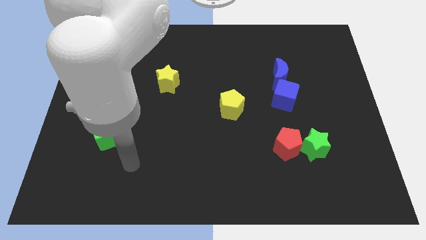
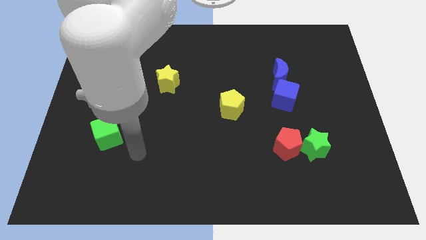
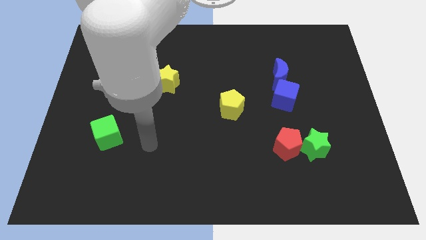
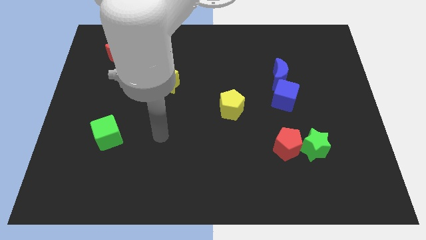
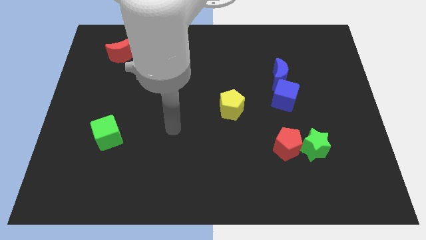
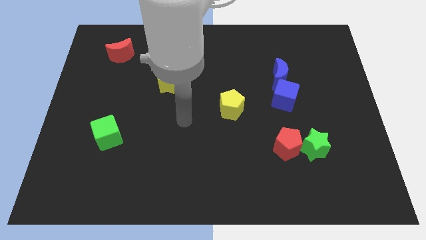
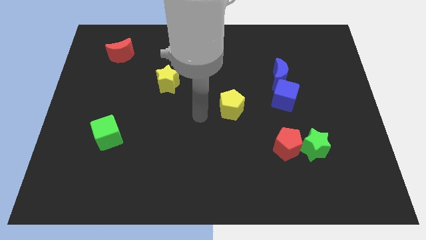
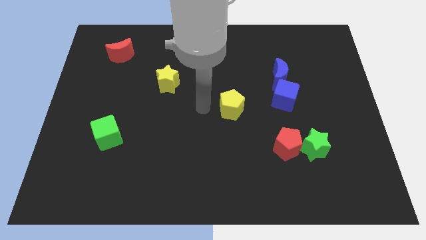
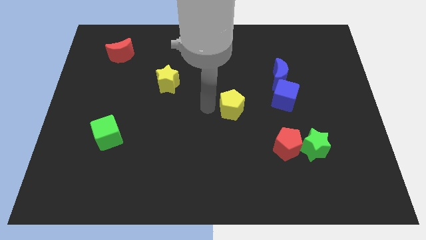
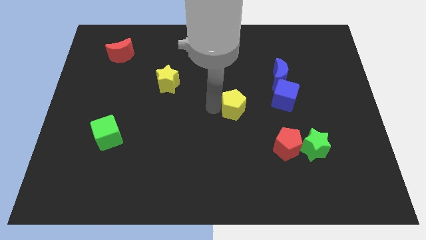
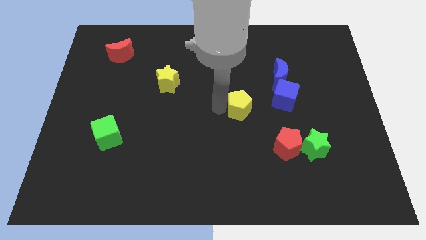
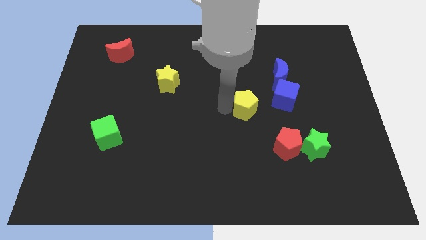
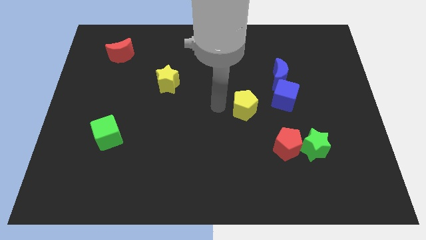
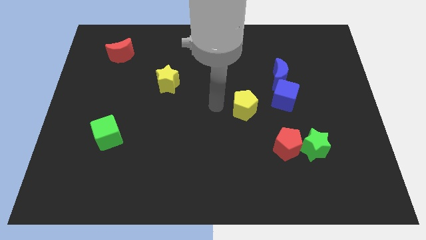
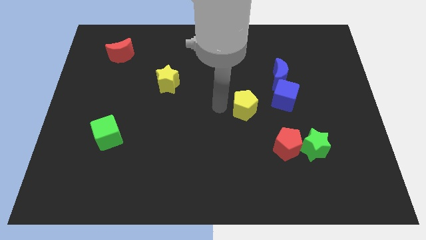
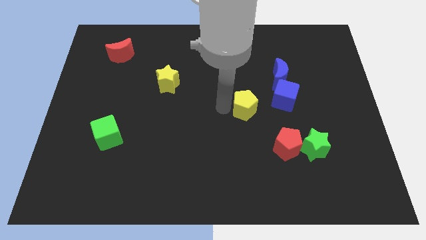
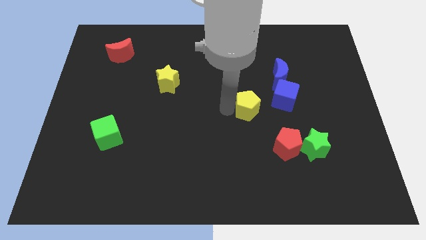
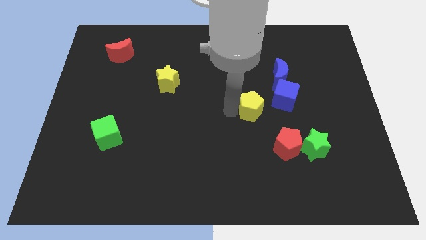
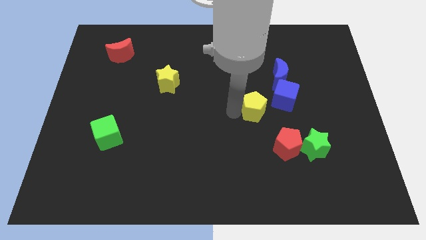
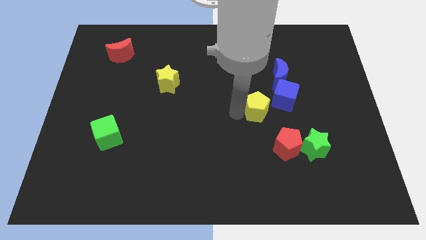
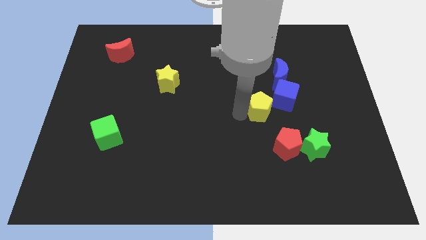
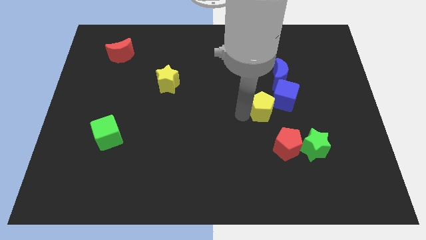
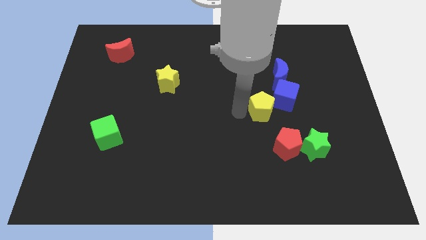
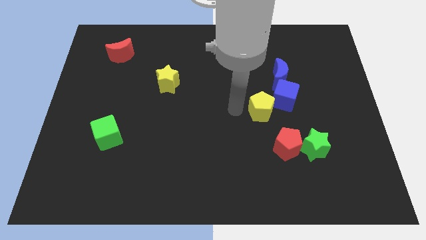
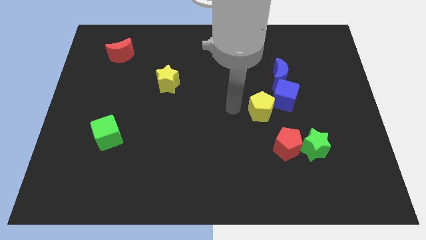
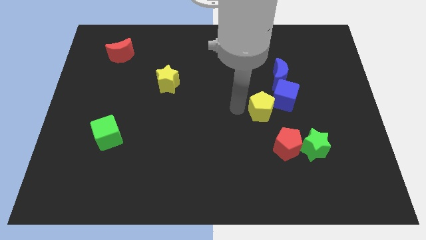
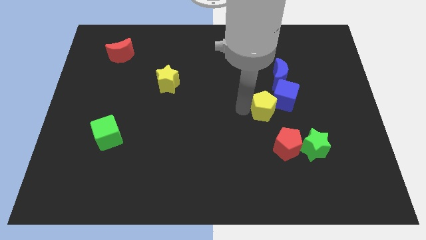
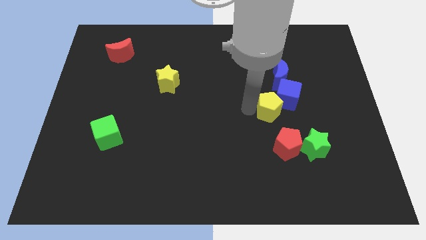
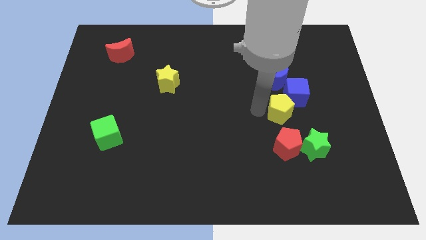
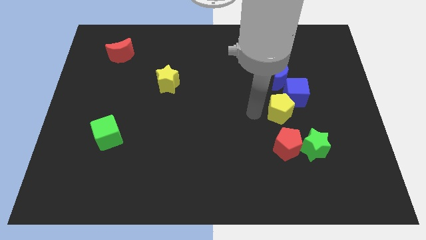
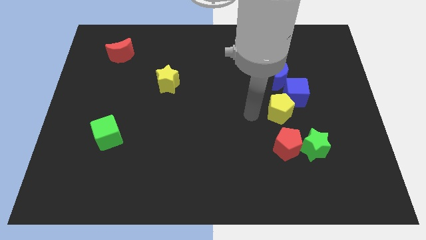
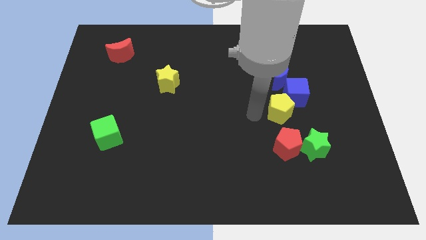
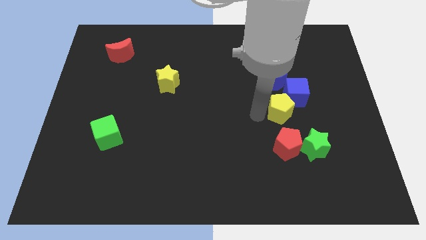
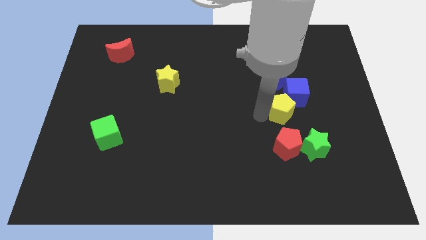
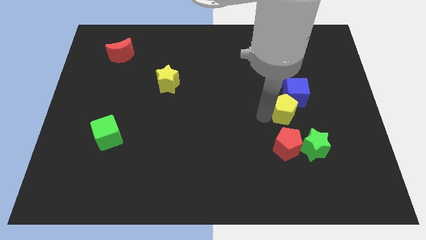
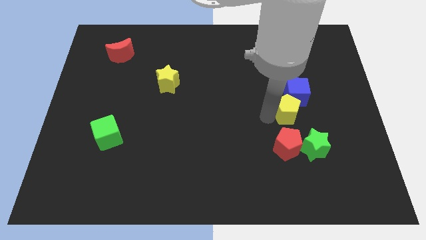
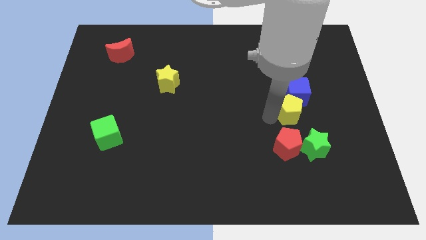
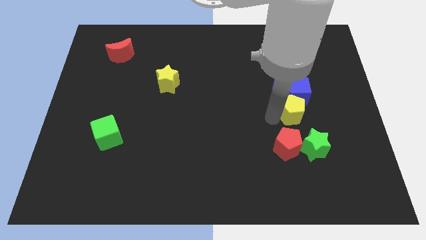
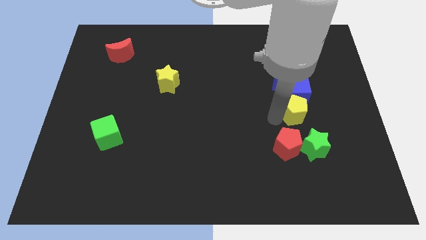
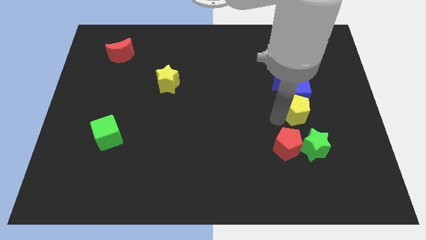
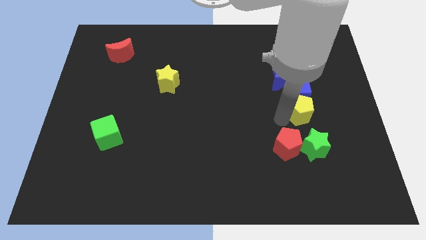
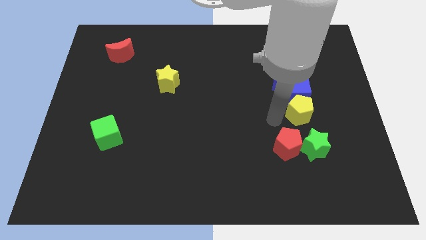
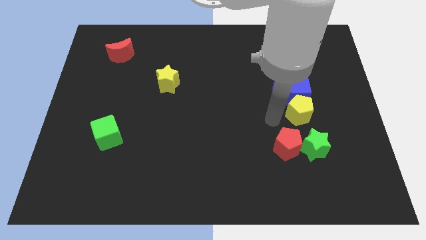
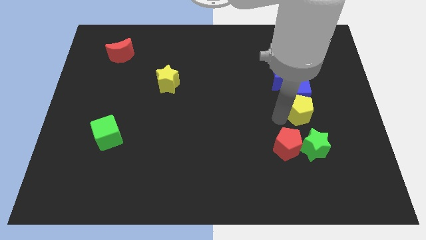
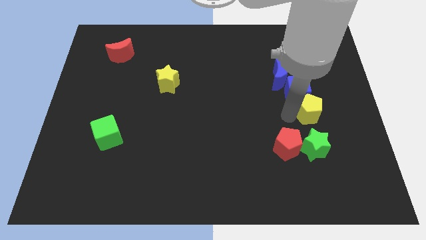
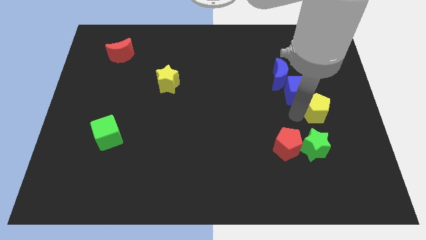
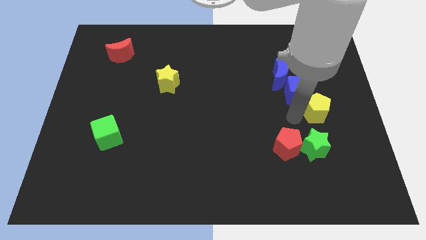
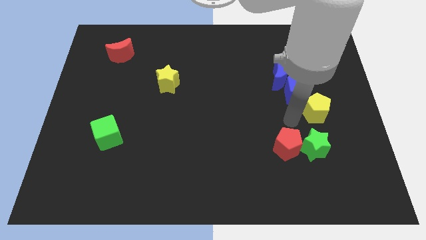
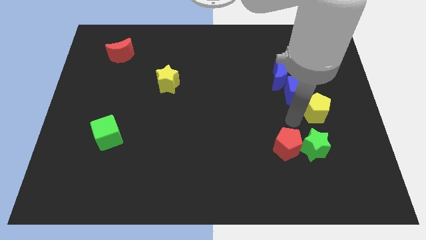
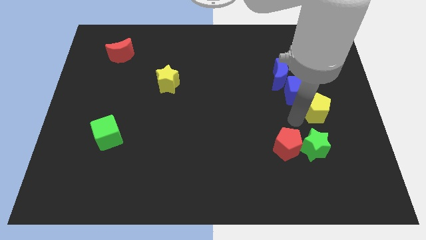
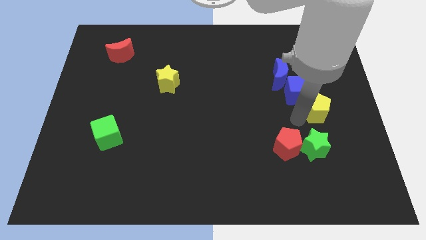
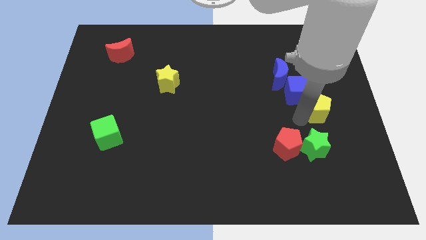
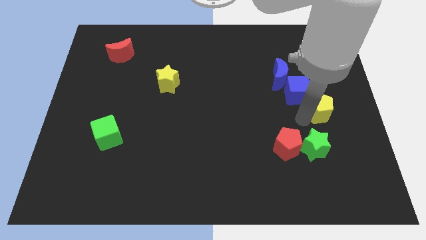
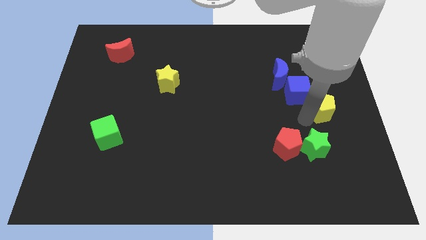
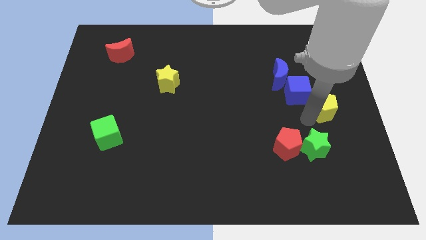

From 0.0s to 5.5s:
push the yellow pentagon to the right side of the board

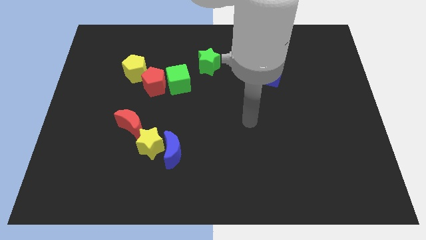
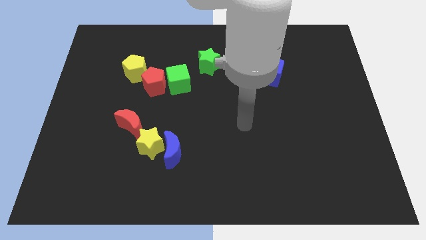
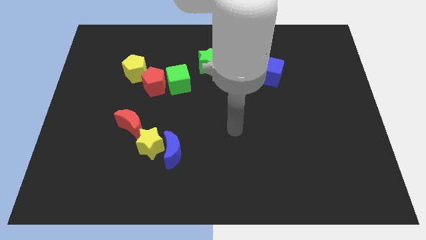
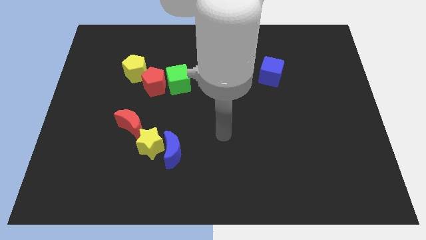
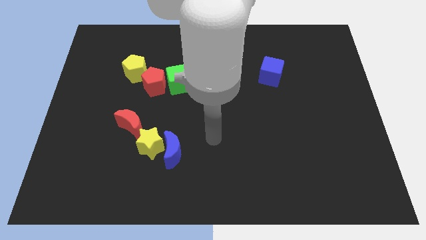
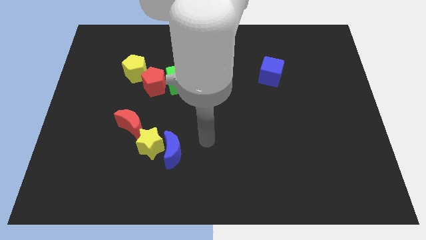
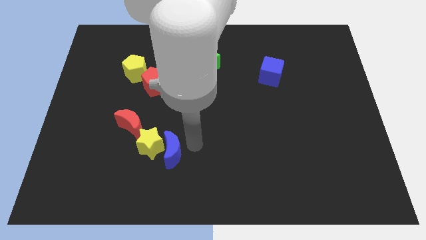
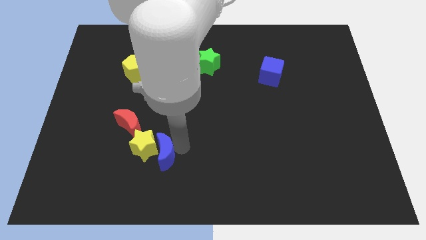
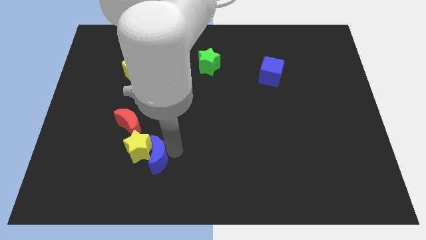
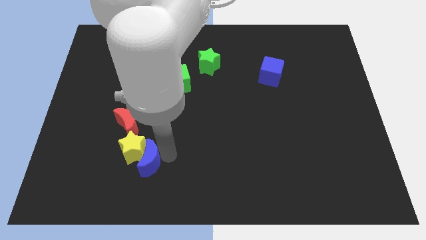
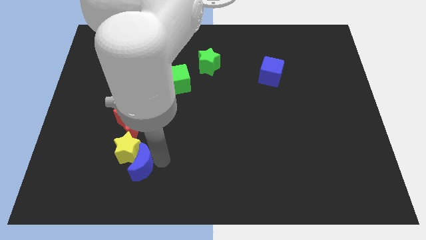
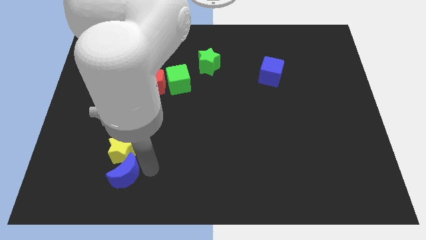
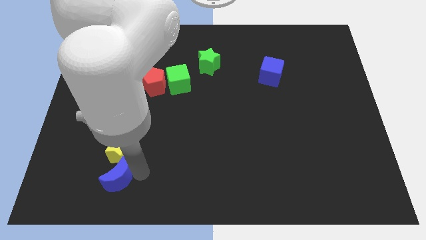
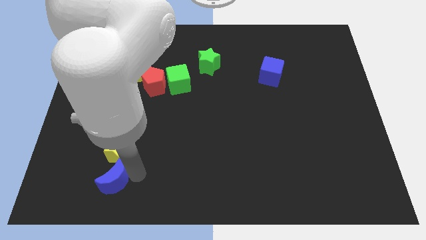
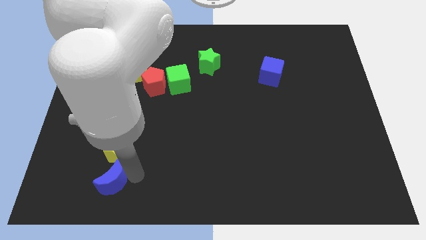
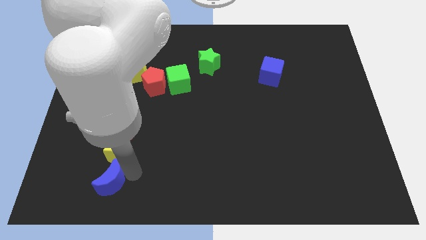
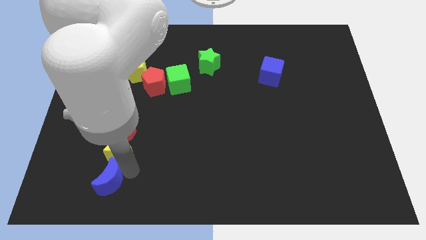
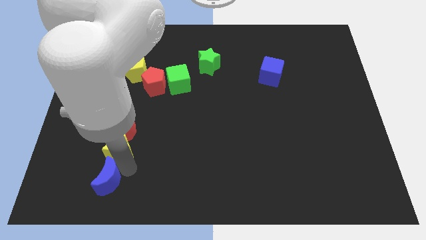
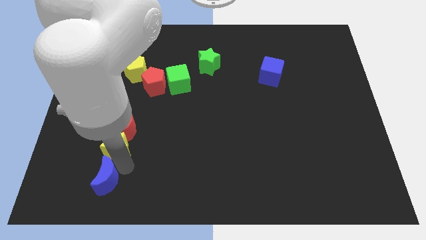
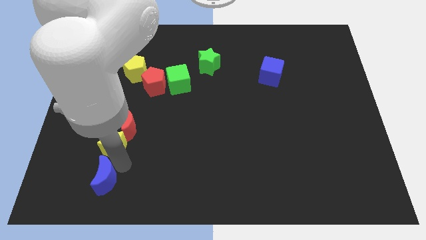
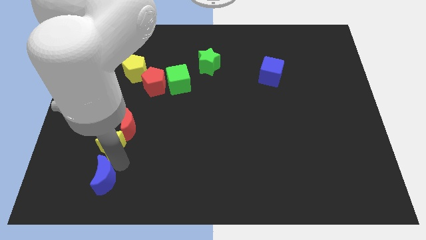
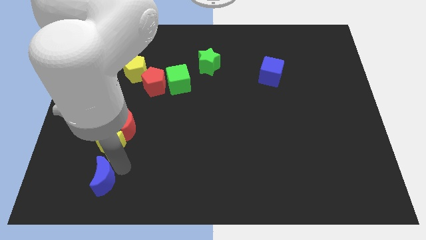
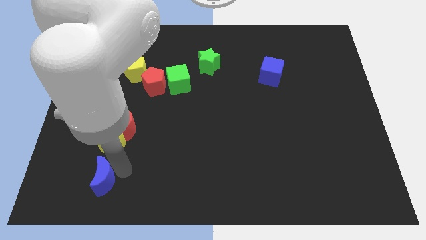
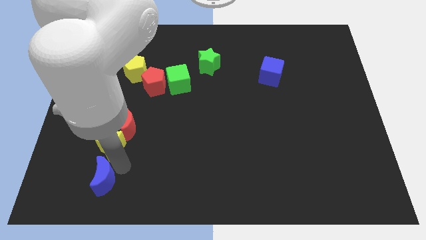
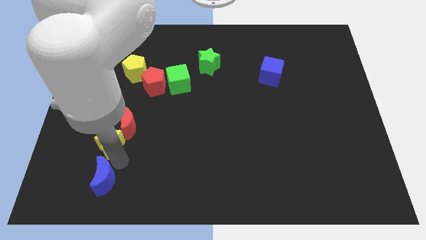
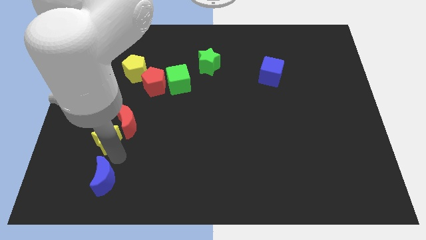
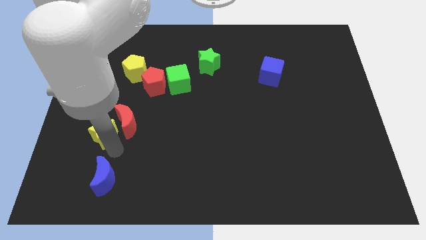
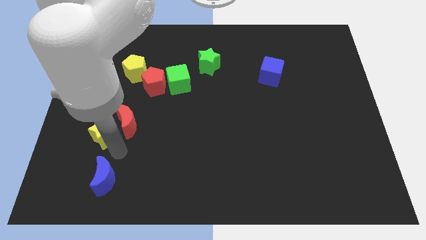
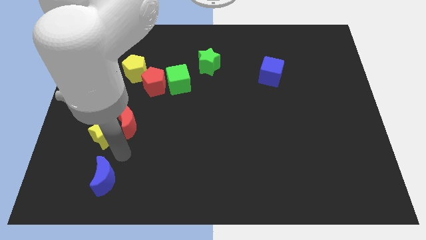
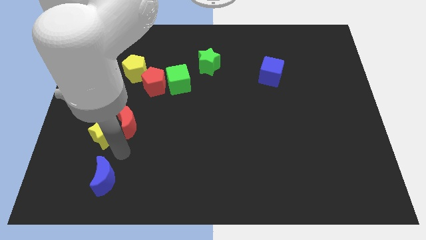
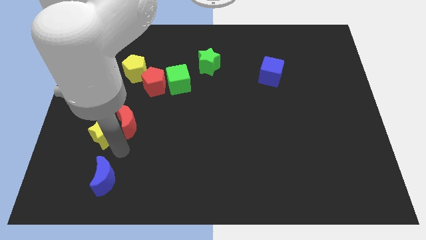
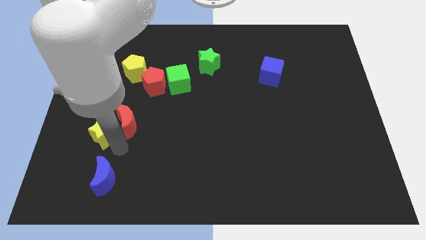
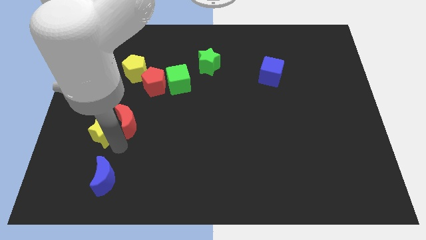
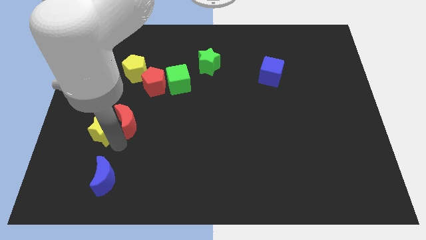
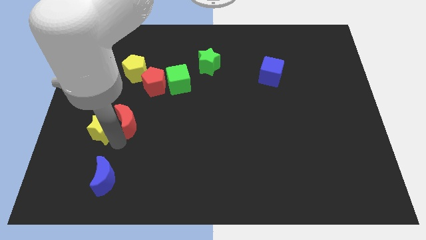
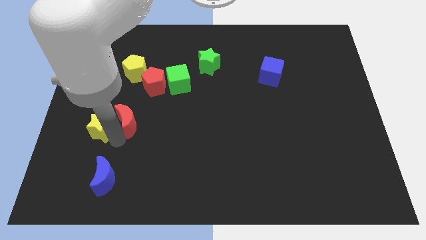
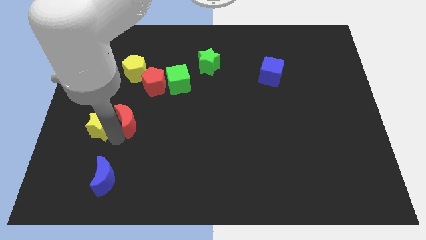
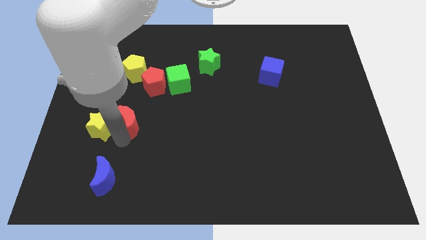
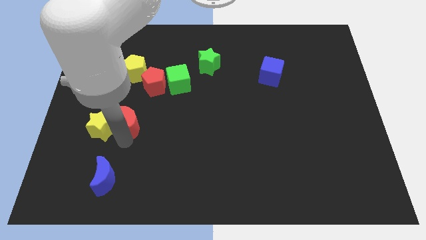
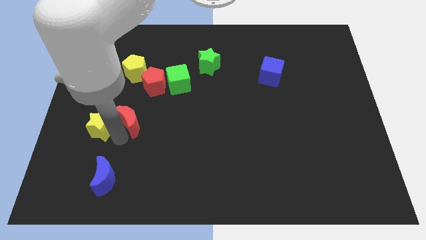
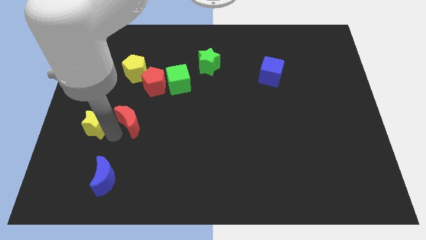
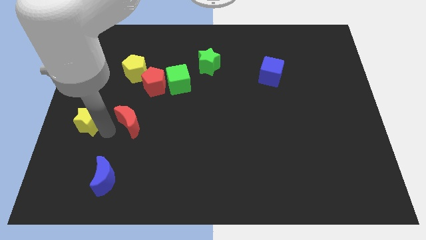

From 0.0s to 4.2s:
put the yellow star to the left side of the board
